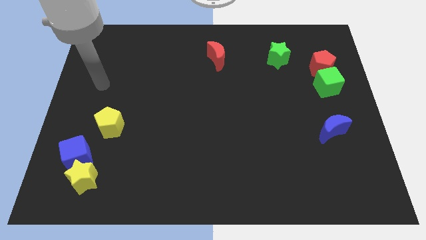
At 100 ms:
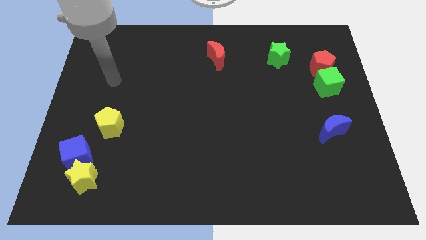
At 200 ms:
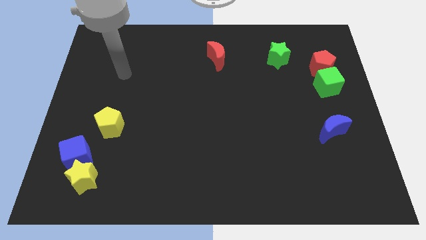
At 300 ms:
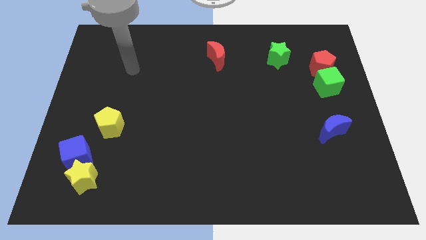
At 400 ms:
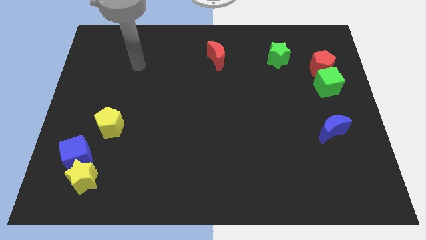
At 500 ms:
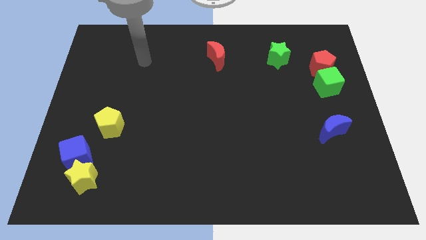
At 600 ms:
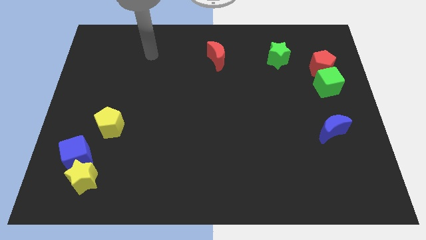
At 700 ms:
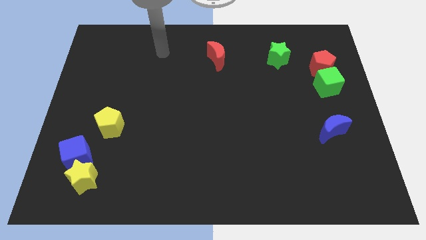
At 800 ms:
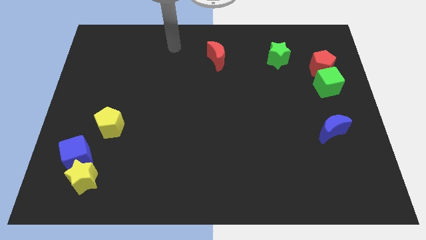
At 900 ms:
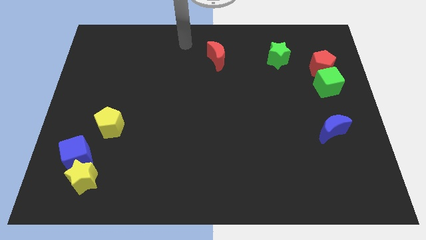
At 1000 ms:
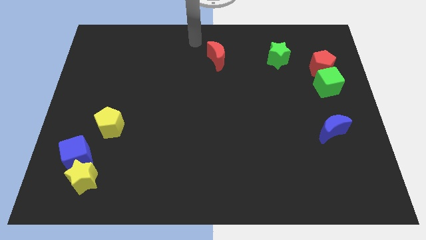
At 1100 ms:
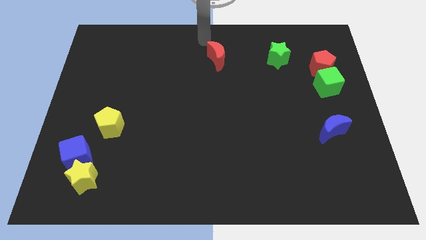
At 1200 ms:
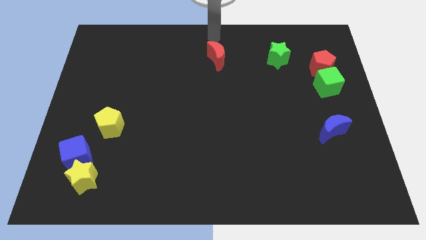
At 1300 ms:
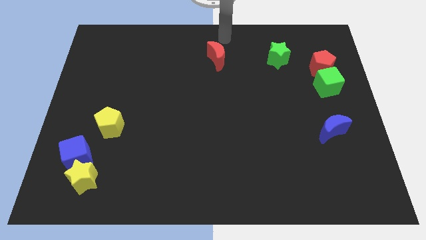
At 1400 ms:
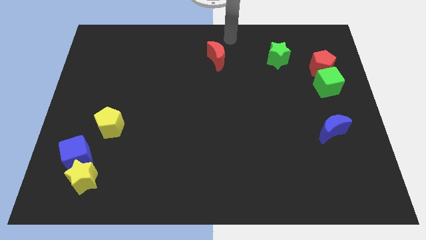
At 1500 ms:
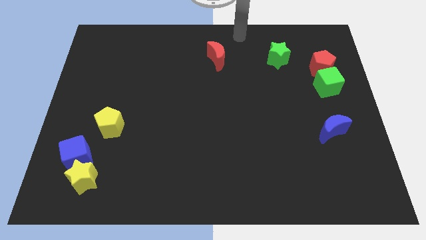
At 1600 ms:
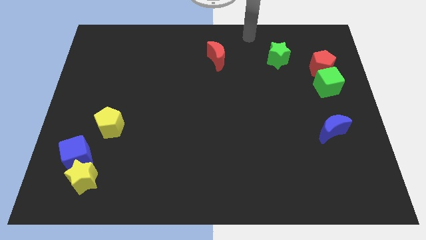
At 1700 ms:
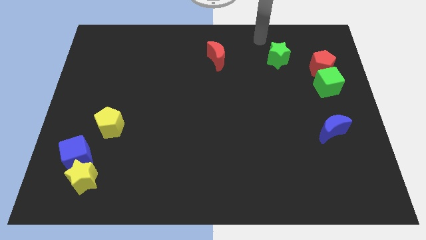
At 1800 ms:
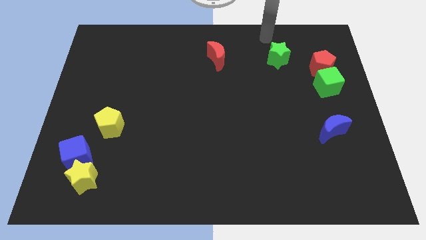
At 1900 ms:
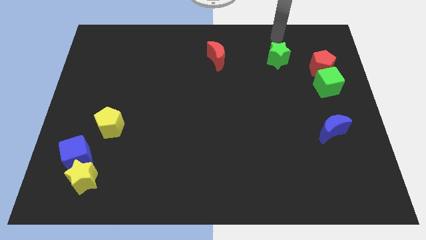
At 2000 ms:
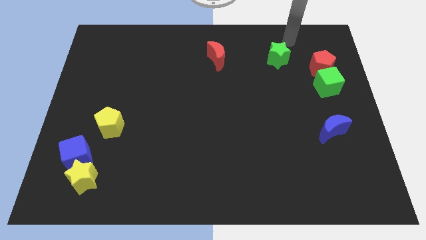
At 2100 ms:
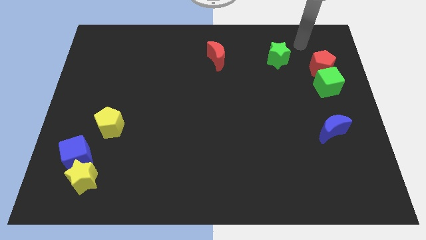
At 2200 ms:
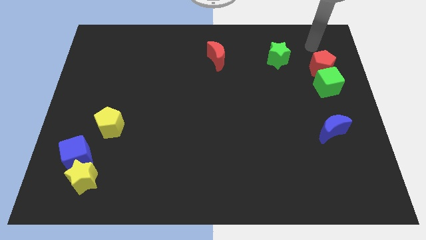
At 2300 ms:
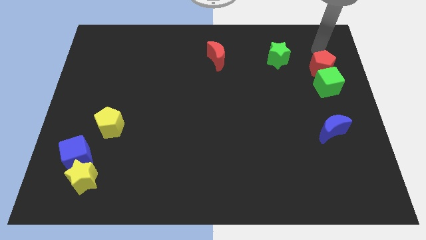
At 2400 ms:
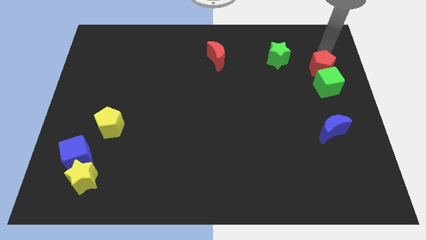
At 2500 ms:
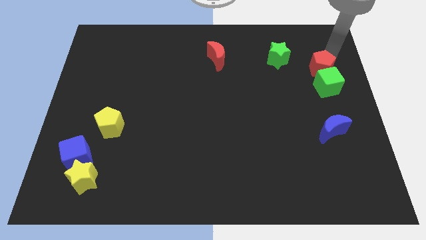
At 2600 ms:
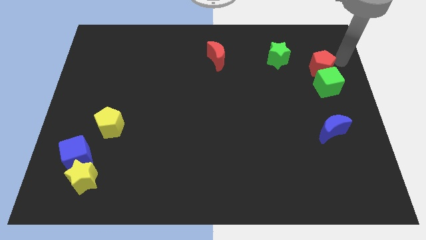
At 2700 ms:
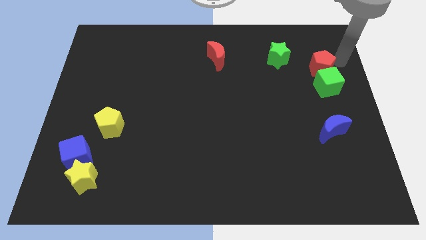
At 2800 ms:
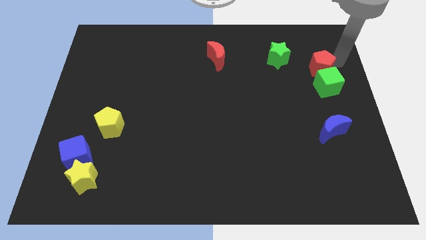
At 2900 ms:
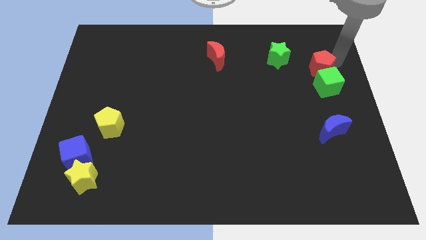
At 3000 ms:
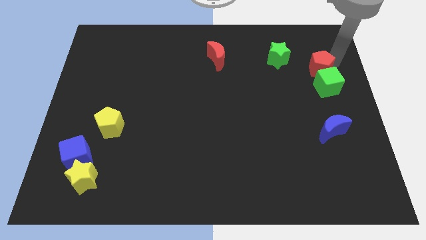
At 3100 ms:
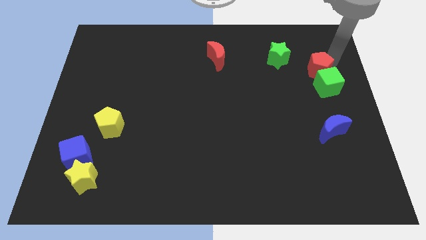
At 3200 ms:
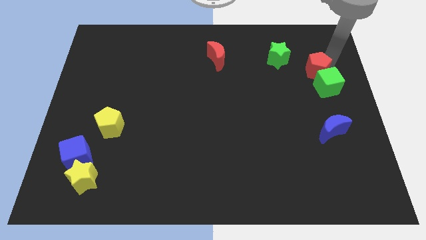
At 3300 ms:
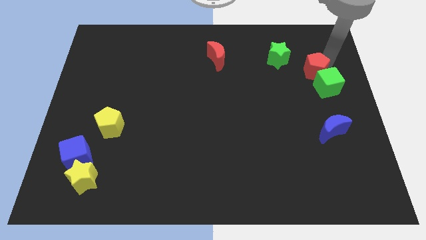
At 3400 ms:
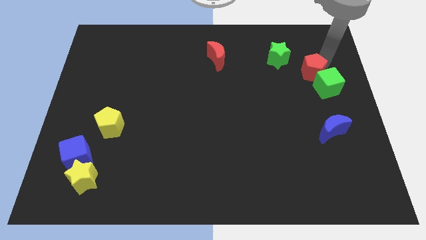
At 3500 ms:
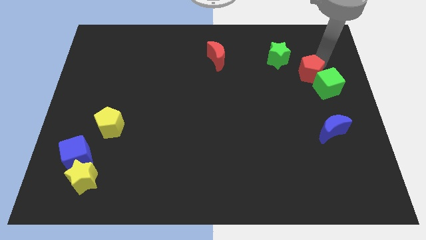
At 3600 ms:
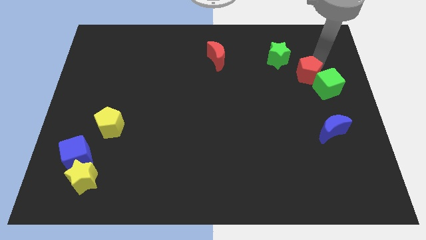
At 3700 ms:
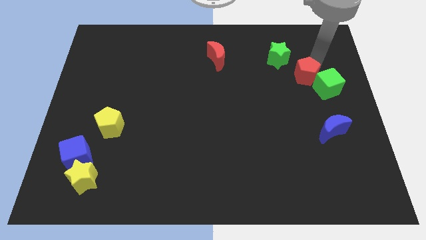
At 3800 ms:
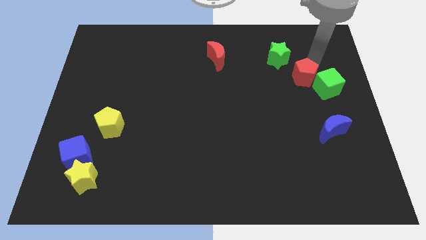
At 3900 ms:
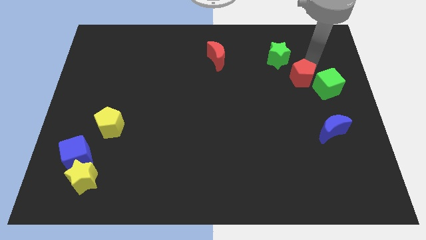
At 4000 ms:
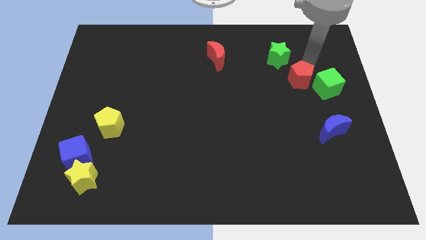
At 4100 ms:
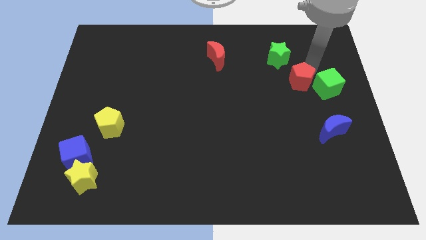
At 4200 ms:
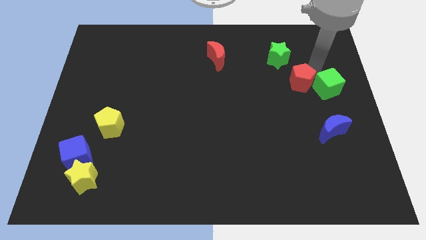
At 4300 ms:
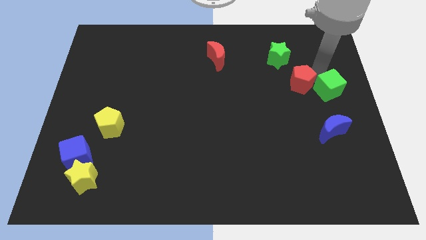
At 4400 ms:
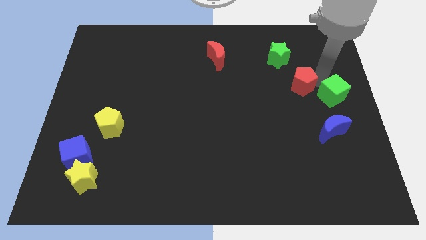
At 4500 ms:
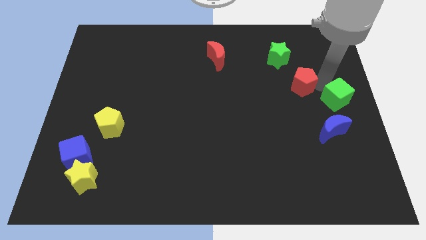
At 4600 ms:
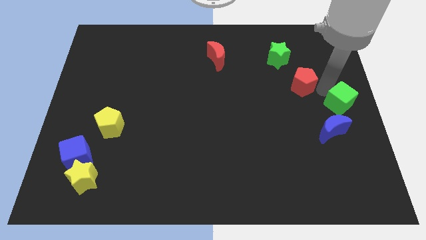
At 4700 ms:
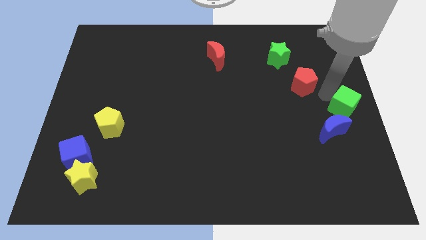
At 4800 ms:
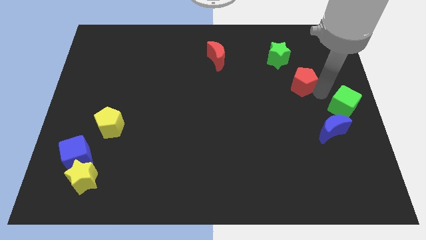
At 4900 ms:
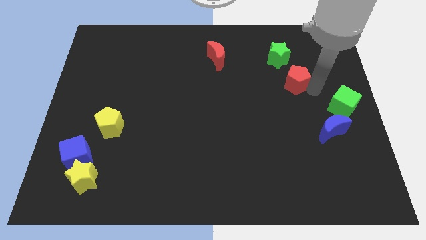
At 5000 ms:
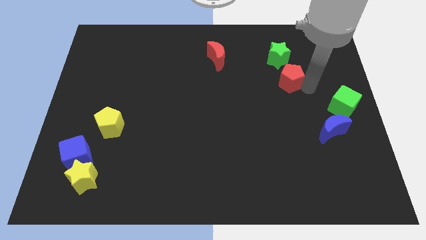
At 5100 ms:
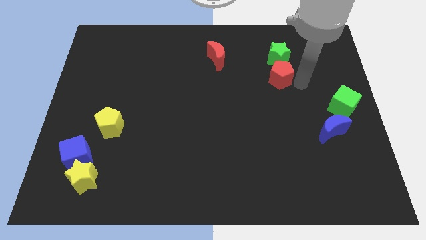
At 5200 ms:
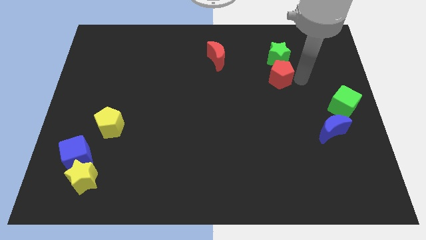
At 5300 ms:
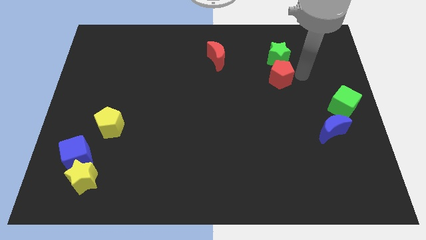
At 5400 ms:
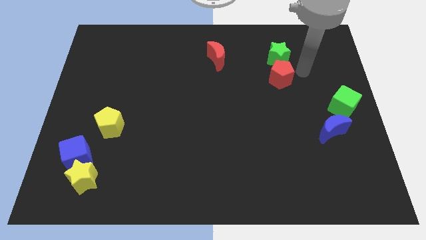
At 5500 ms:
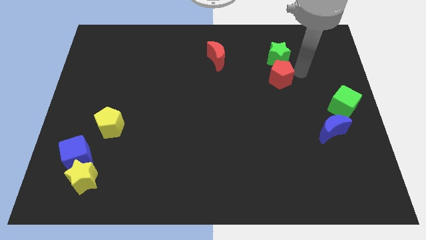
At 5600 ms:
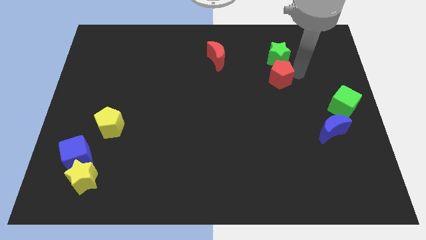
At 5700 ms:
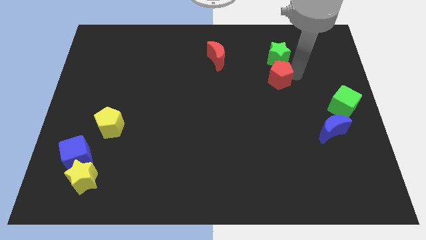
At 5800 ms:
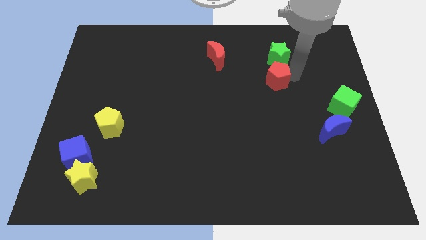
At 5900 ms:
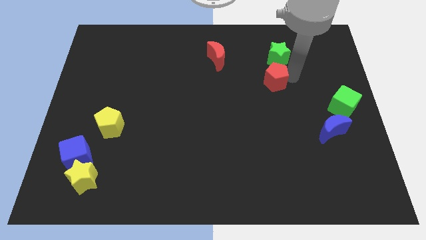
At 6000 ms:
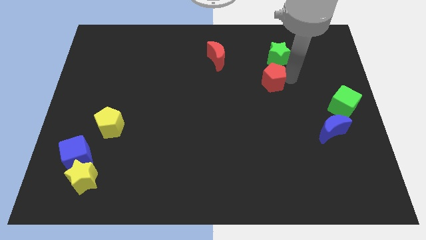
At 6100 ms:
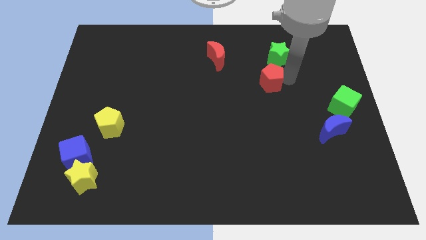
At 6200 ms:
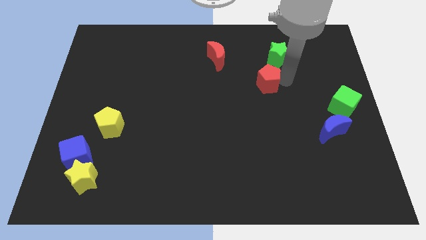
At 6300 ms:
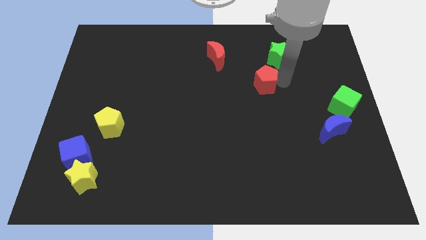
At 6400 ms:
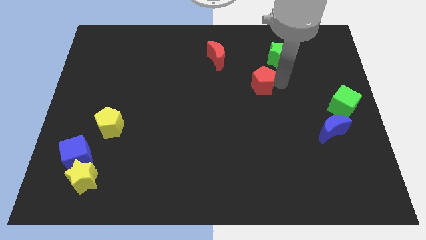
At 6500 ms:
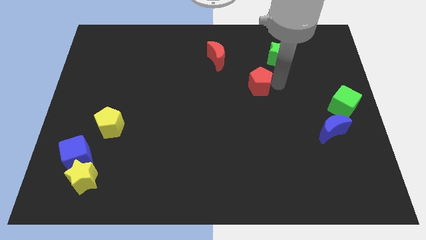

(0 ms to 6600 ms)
put the red pentagon to the middle of the board

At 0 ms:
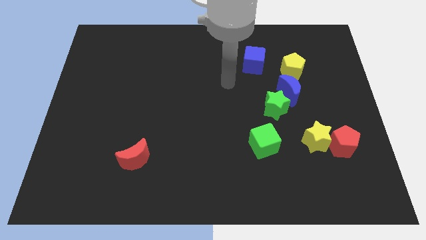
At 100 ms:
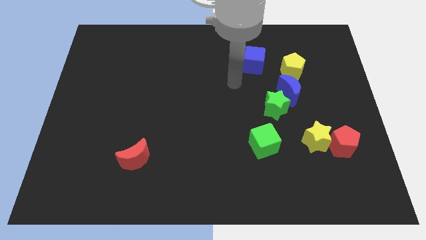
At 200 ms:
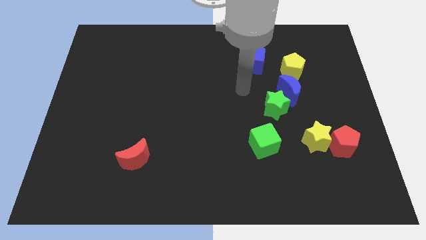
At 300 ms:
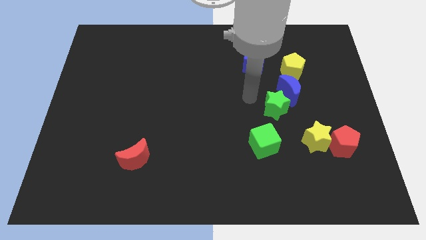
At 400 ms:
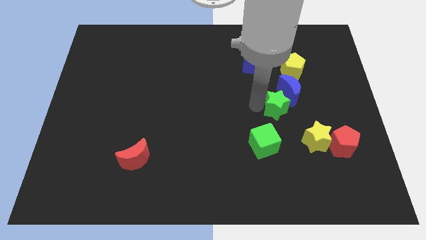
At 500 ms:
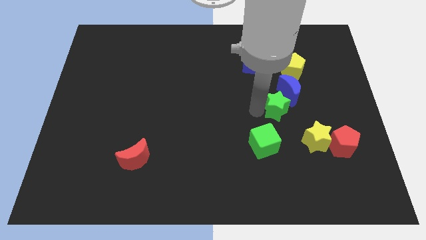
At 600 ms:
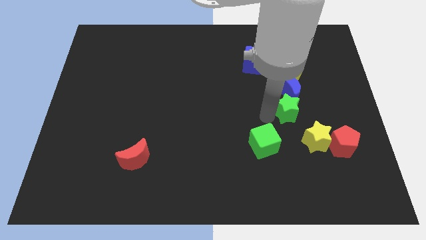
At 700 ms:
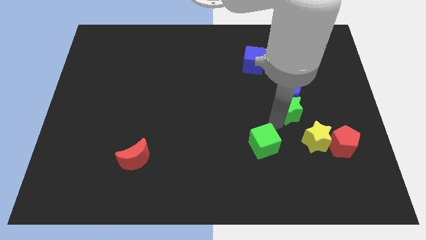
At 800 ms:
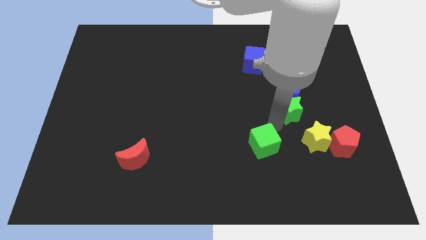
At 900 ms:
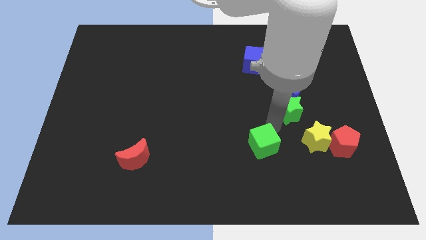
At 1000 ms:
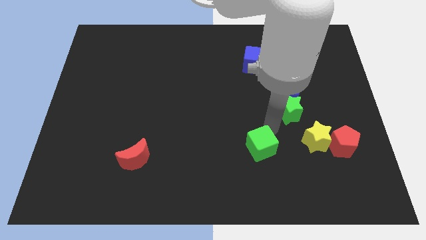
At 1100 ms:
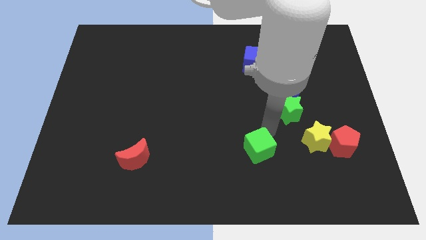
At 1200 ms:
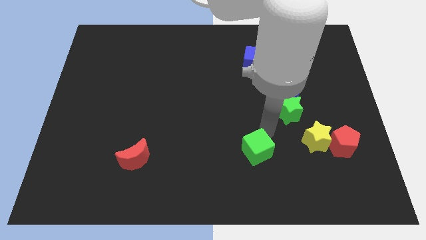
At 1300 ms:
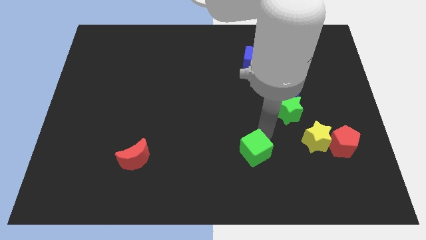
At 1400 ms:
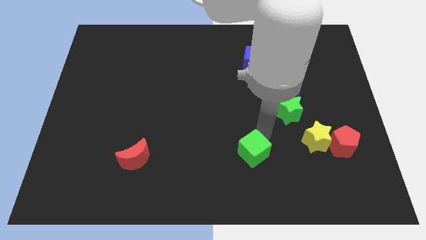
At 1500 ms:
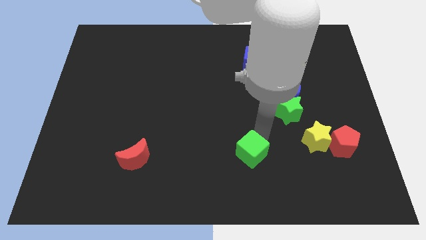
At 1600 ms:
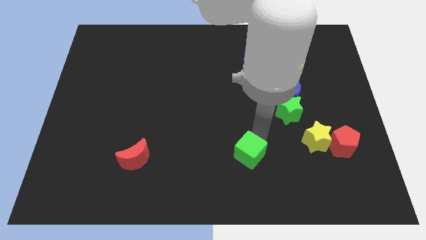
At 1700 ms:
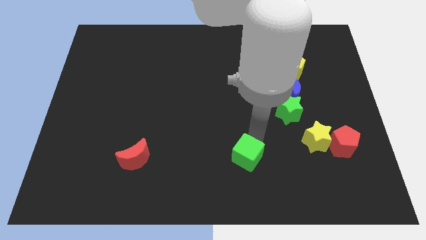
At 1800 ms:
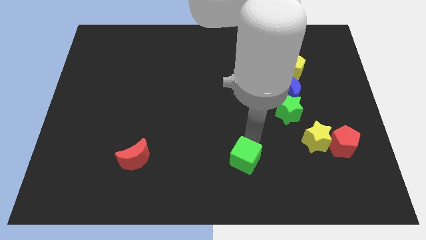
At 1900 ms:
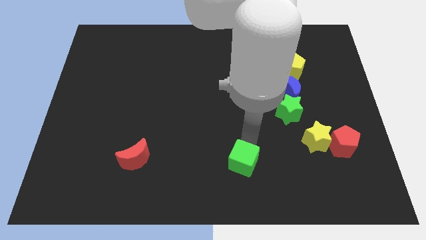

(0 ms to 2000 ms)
put the green cube to the bottom side
